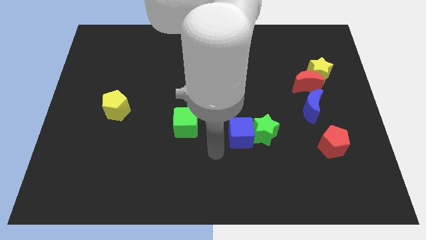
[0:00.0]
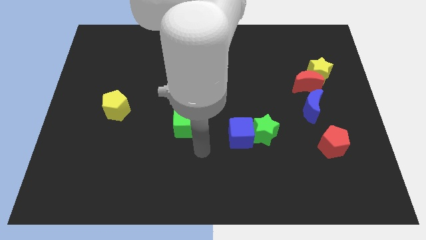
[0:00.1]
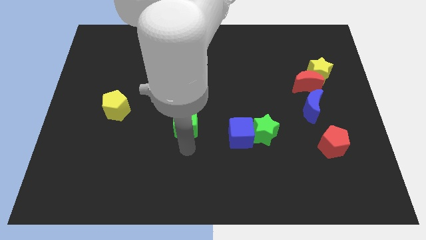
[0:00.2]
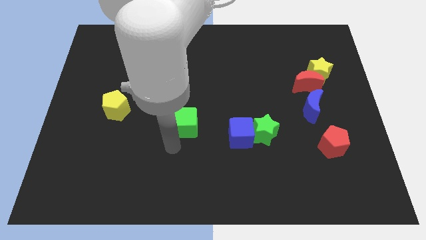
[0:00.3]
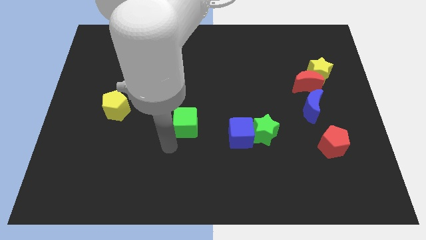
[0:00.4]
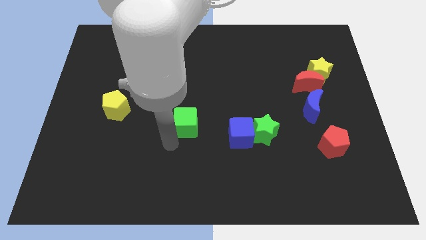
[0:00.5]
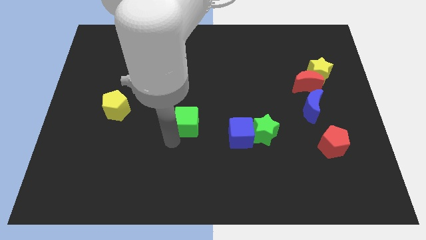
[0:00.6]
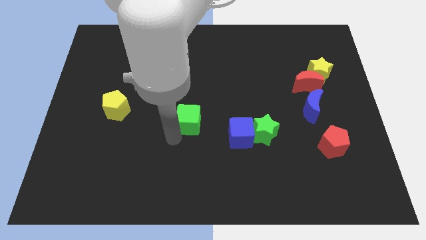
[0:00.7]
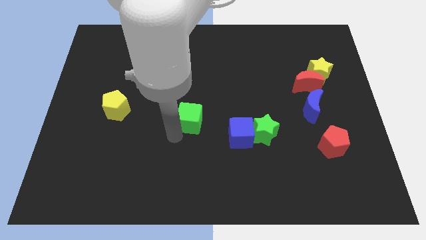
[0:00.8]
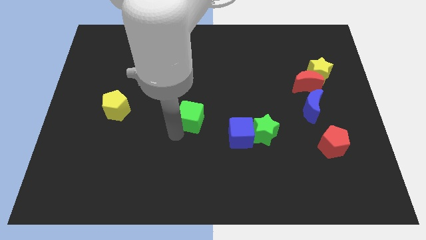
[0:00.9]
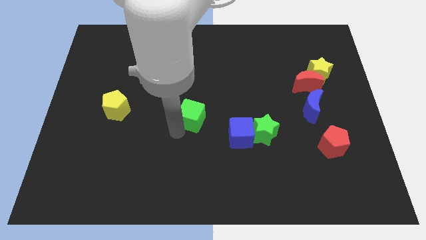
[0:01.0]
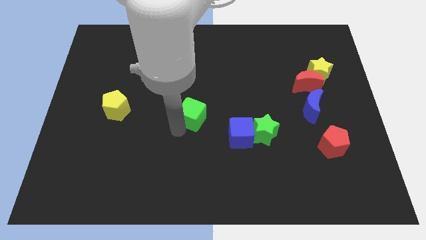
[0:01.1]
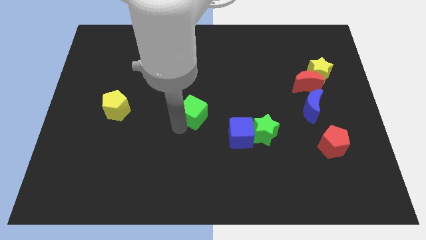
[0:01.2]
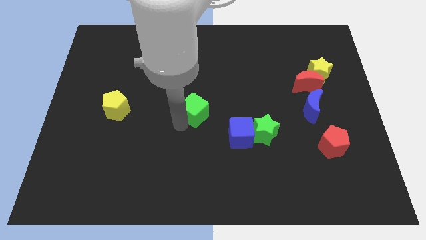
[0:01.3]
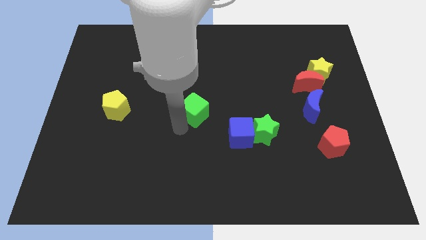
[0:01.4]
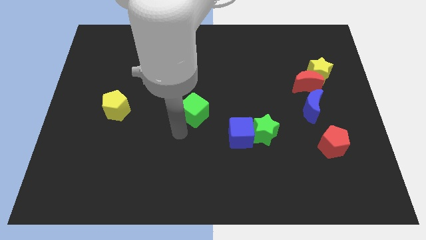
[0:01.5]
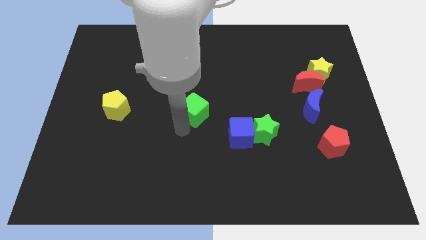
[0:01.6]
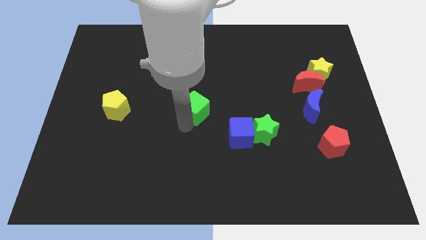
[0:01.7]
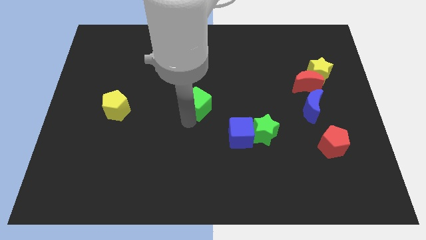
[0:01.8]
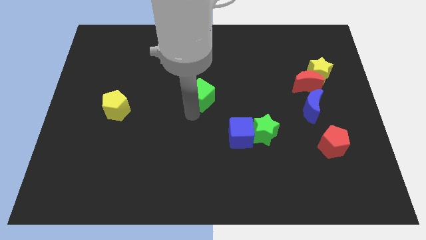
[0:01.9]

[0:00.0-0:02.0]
move the green cube diagonally upwards and right slightly

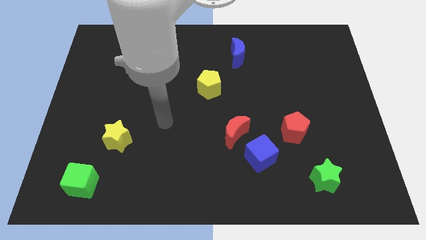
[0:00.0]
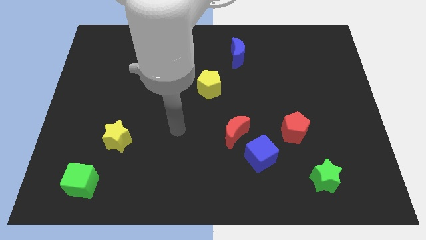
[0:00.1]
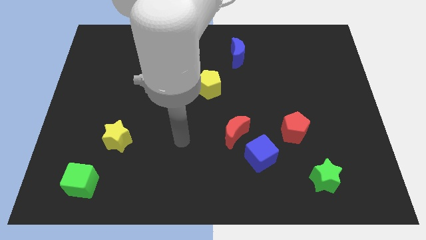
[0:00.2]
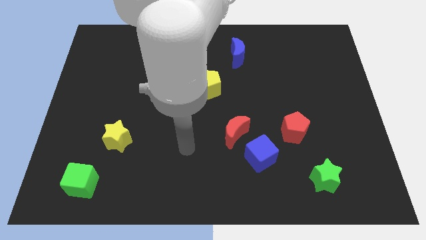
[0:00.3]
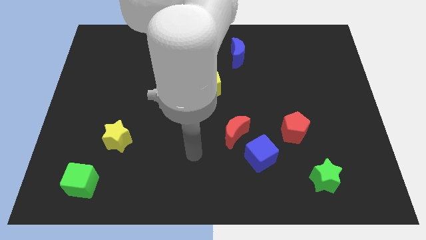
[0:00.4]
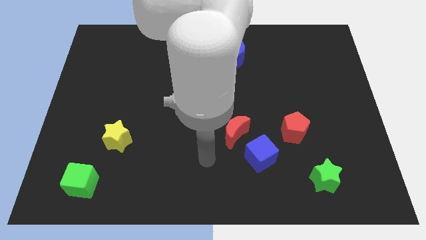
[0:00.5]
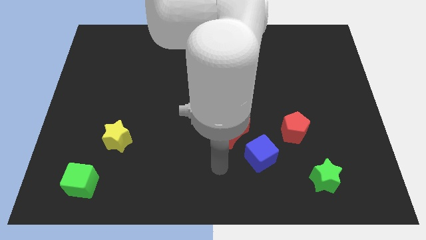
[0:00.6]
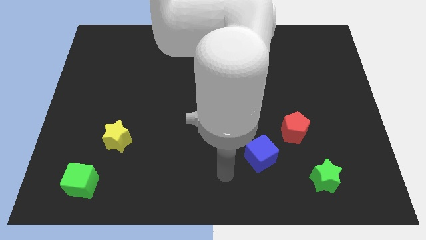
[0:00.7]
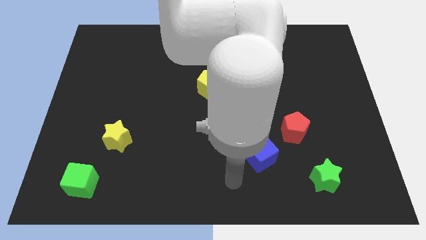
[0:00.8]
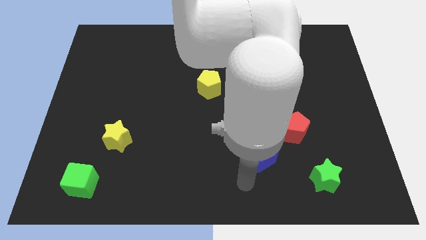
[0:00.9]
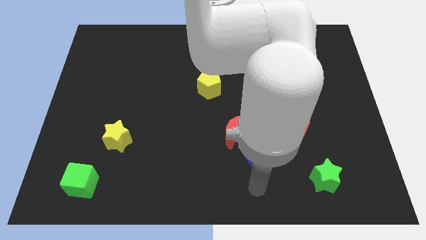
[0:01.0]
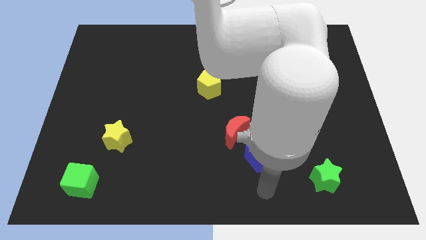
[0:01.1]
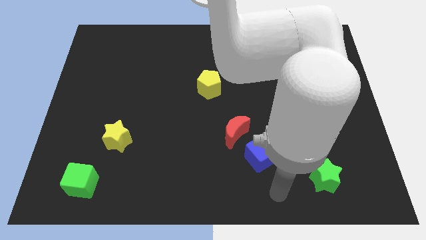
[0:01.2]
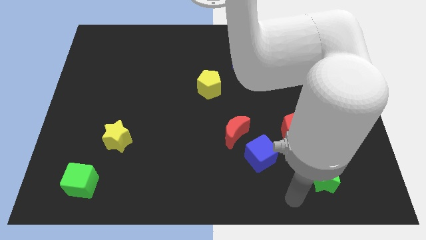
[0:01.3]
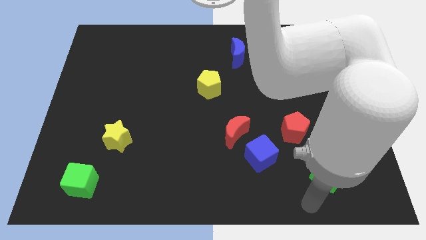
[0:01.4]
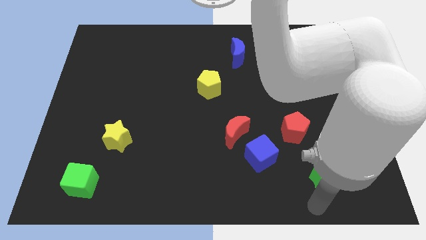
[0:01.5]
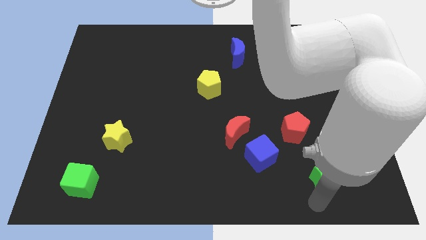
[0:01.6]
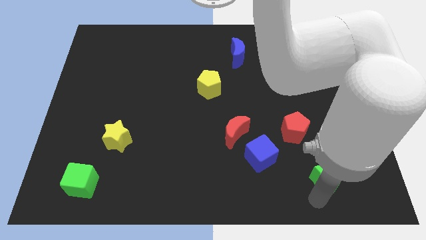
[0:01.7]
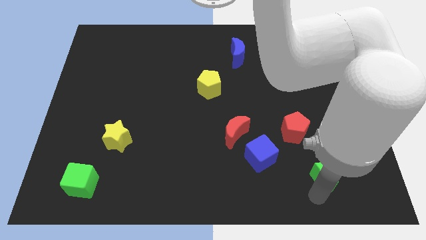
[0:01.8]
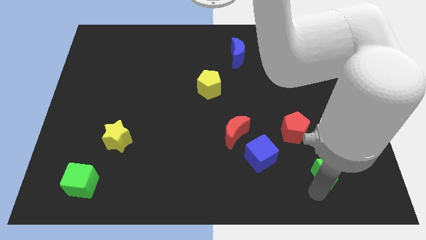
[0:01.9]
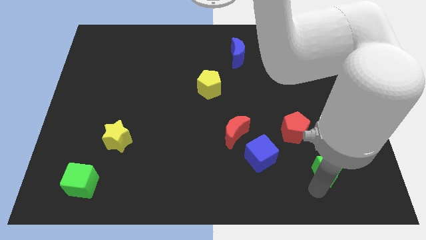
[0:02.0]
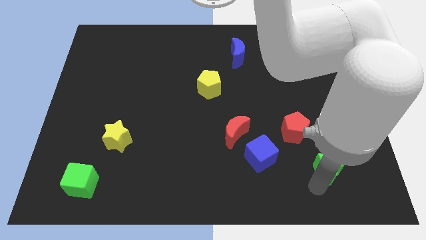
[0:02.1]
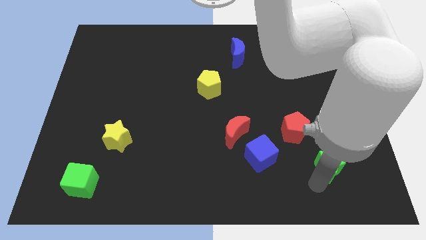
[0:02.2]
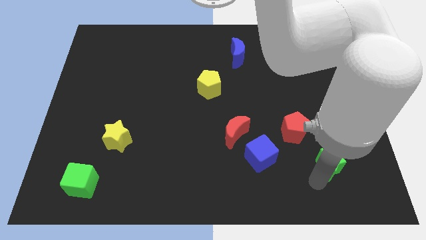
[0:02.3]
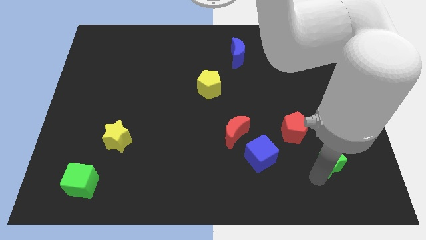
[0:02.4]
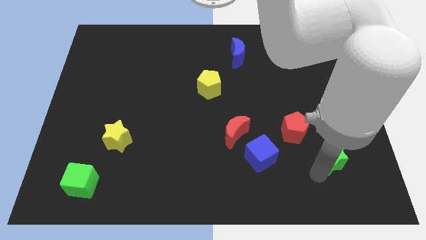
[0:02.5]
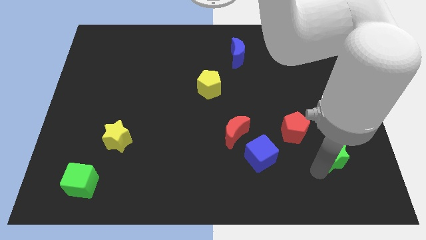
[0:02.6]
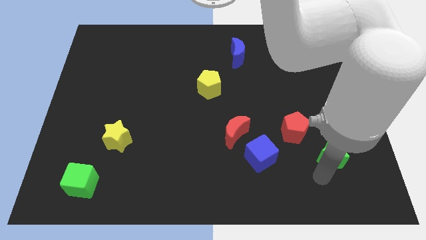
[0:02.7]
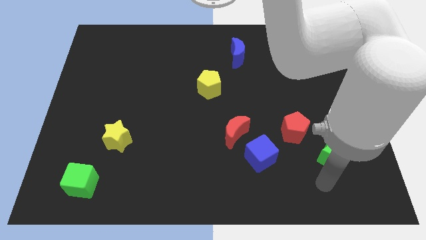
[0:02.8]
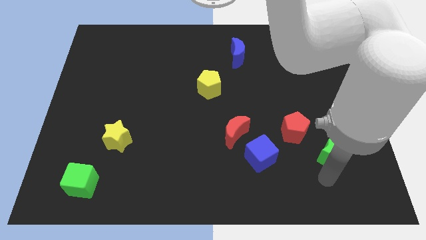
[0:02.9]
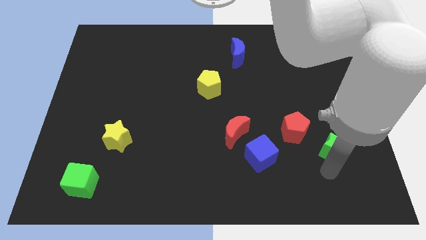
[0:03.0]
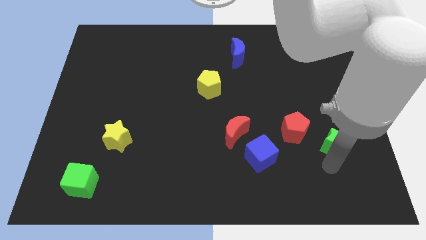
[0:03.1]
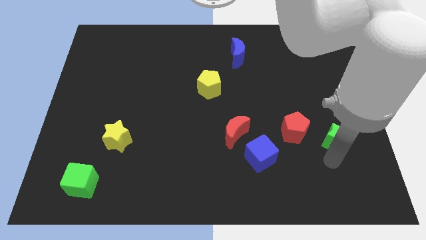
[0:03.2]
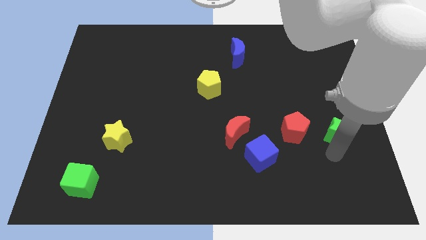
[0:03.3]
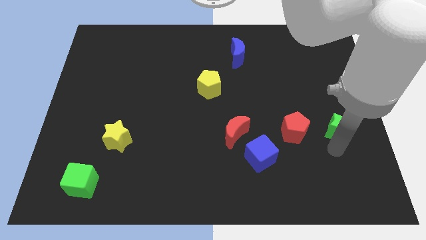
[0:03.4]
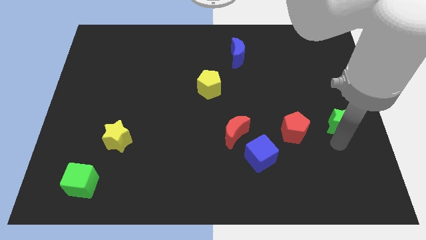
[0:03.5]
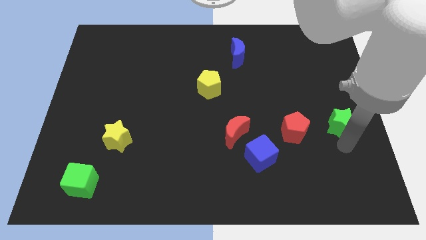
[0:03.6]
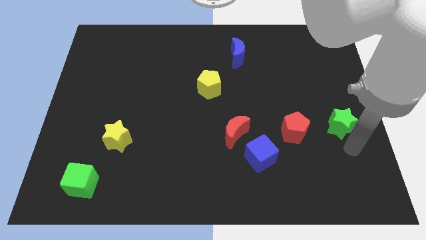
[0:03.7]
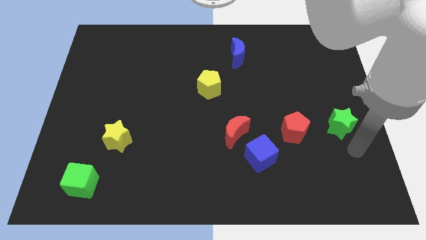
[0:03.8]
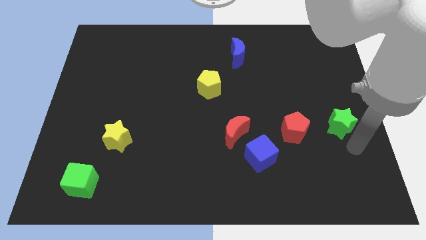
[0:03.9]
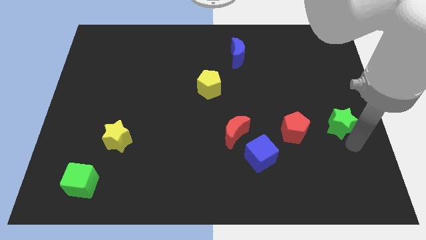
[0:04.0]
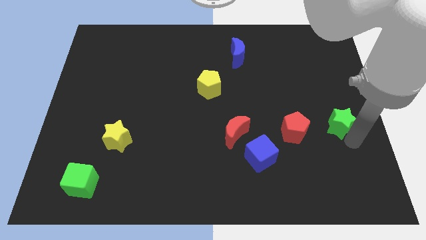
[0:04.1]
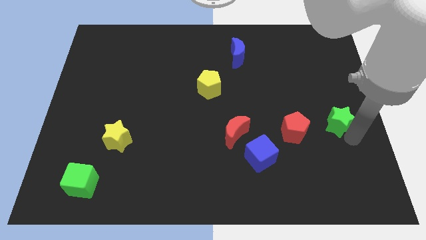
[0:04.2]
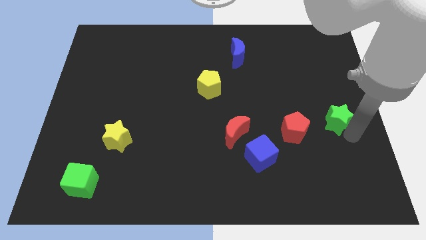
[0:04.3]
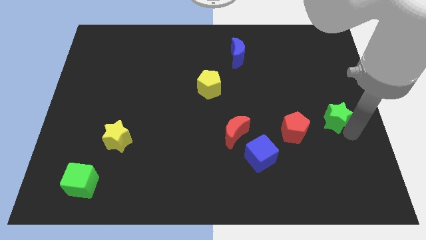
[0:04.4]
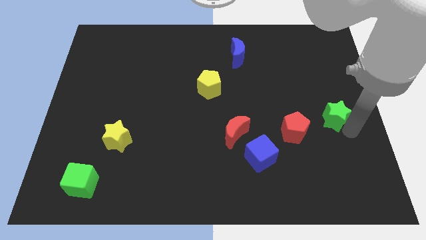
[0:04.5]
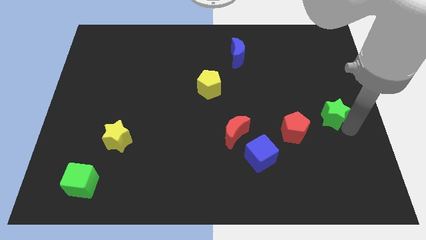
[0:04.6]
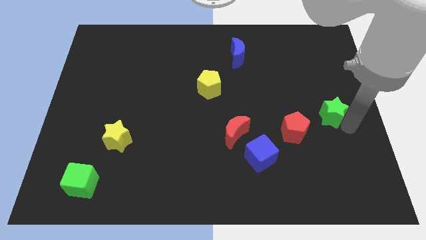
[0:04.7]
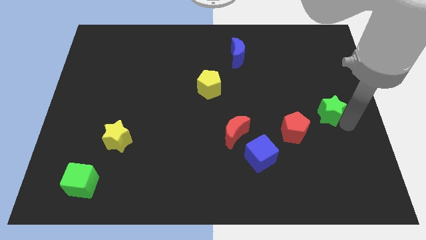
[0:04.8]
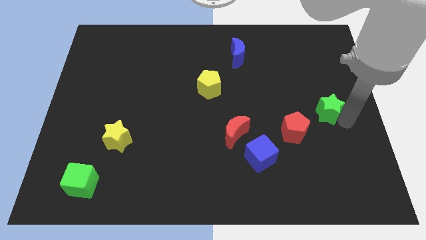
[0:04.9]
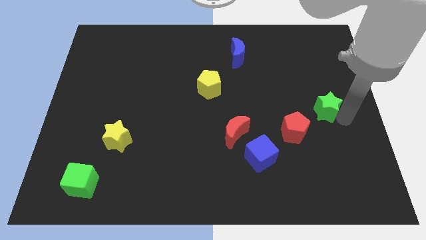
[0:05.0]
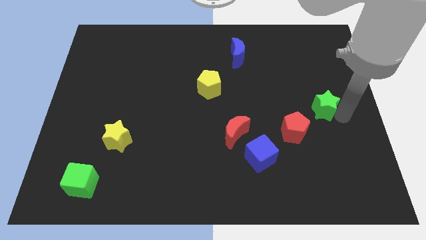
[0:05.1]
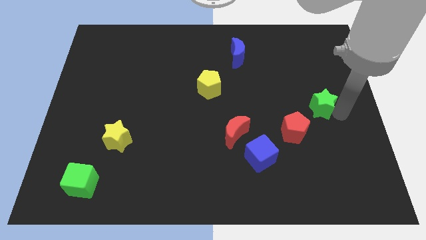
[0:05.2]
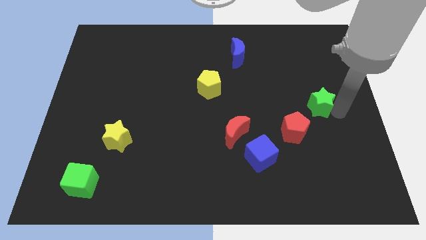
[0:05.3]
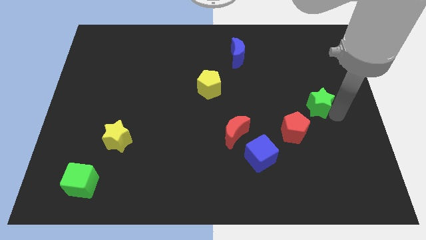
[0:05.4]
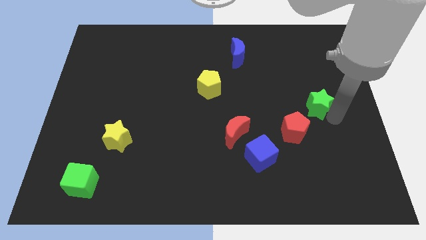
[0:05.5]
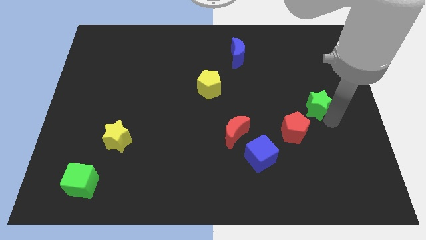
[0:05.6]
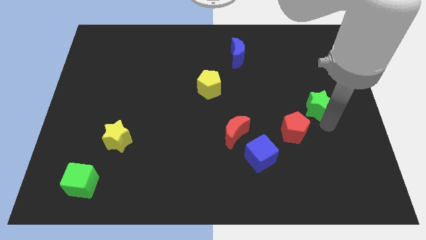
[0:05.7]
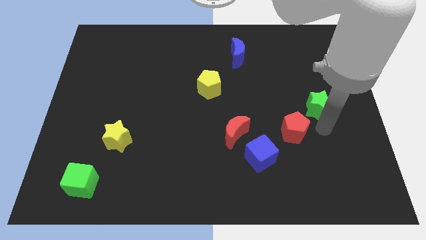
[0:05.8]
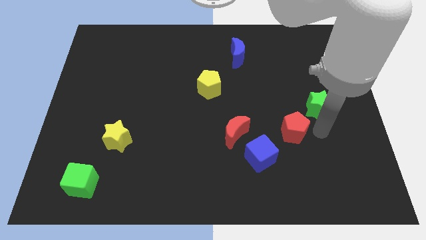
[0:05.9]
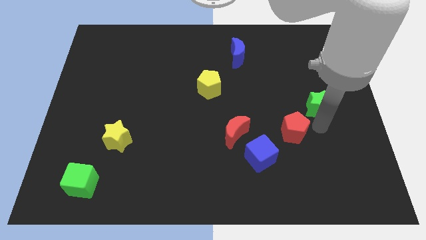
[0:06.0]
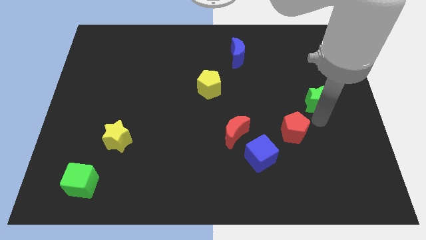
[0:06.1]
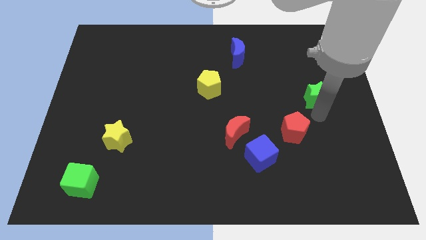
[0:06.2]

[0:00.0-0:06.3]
push the green star upwards
